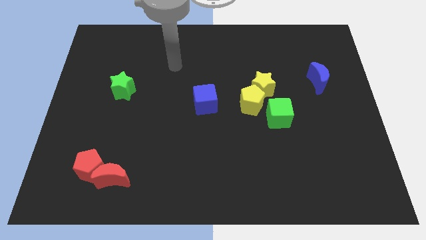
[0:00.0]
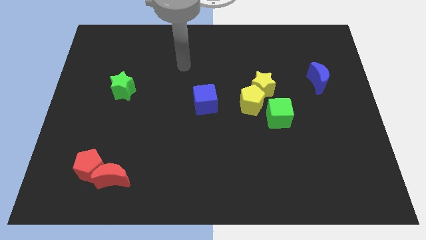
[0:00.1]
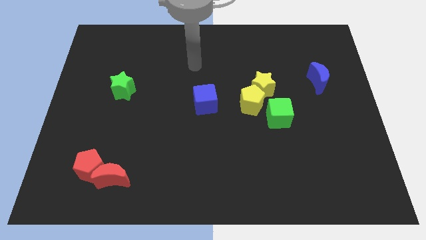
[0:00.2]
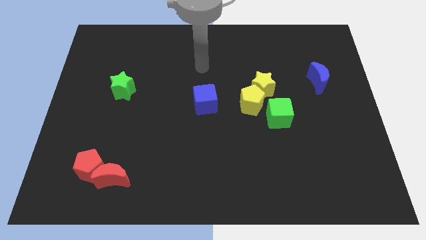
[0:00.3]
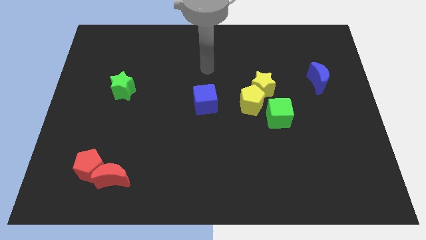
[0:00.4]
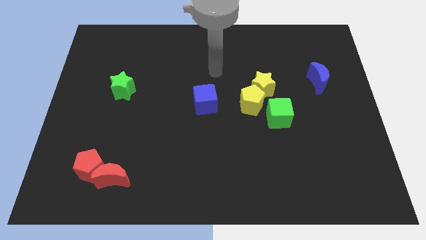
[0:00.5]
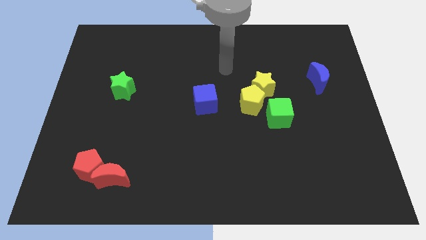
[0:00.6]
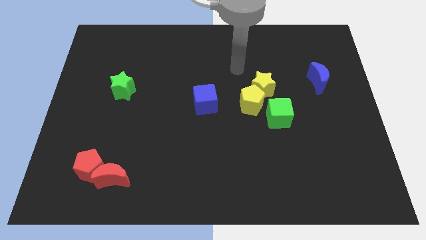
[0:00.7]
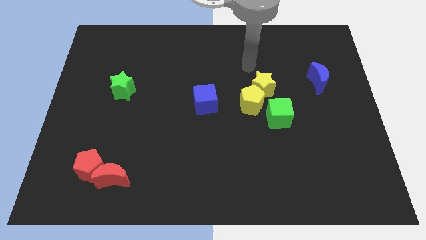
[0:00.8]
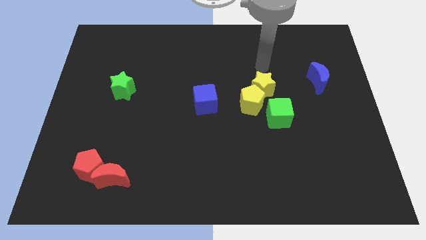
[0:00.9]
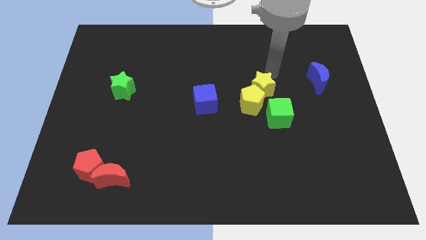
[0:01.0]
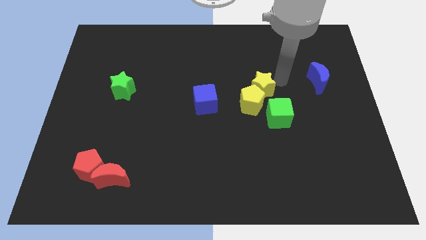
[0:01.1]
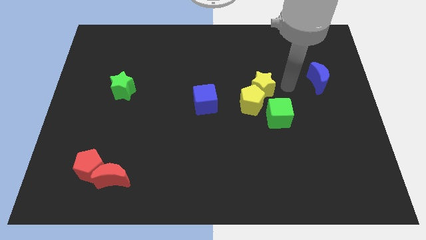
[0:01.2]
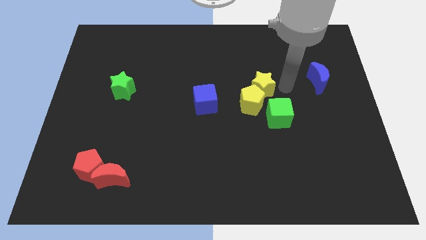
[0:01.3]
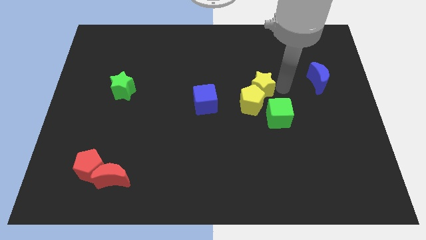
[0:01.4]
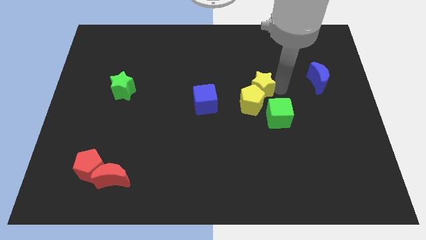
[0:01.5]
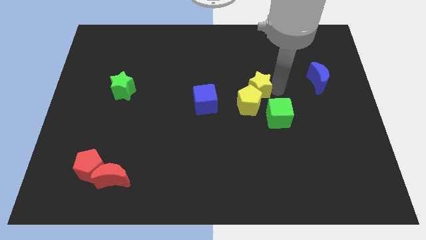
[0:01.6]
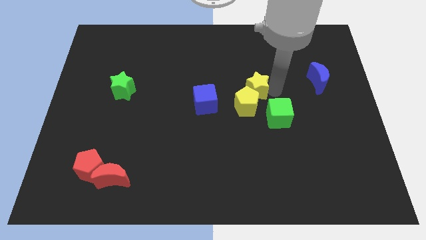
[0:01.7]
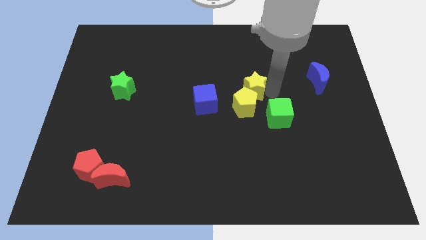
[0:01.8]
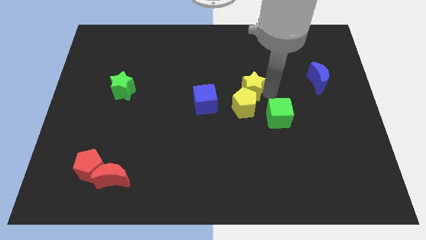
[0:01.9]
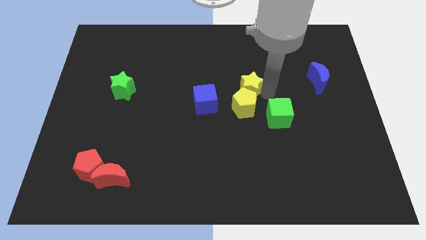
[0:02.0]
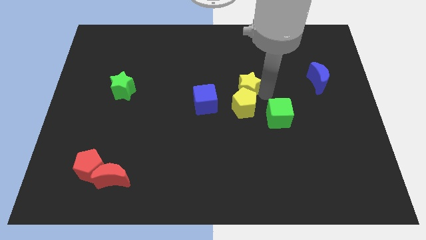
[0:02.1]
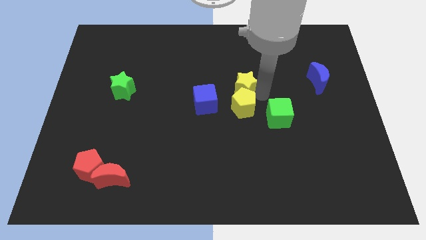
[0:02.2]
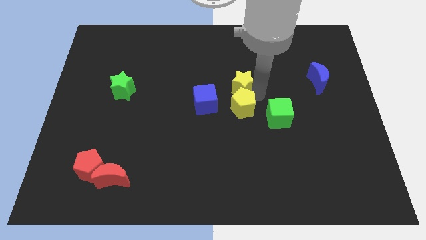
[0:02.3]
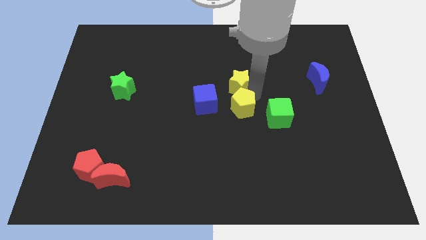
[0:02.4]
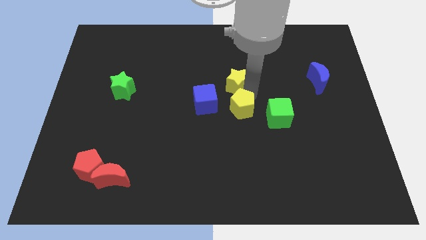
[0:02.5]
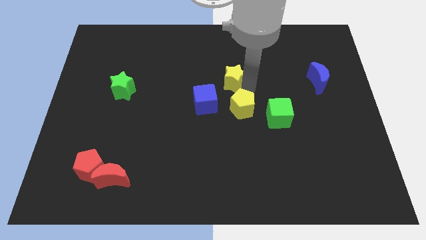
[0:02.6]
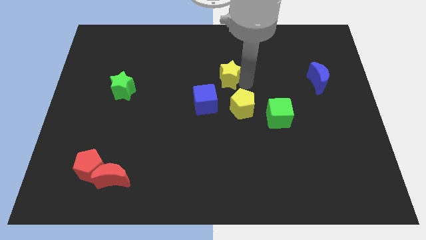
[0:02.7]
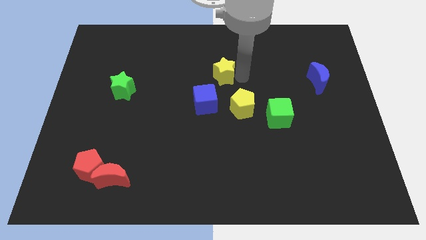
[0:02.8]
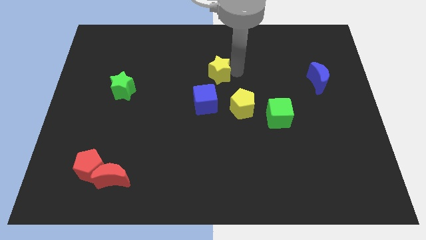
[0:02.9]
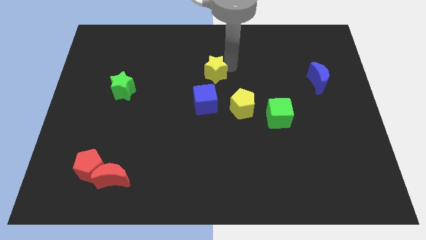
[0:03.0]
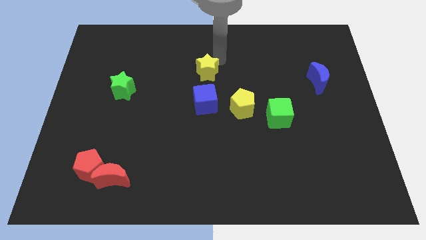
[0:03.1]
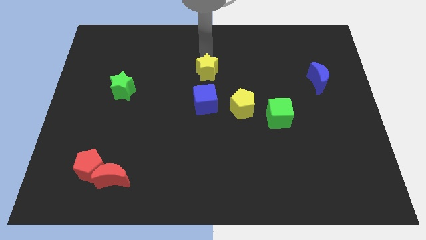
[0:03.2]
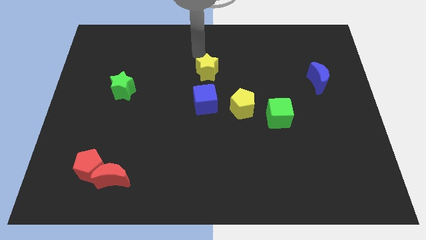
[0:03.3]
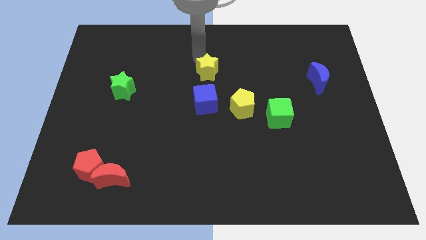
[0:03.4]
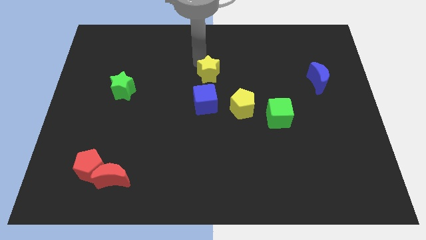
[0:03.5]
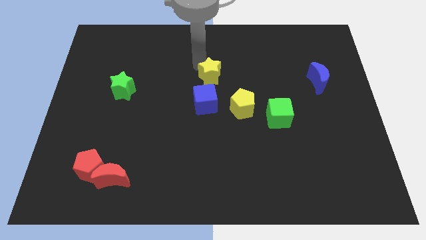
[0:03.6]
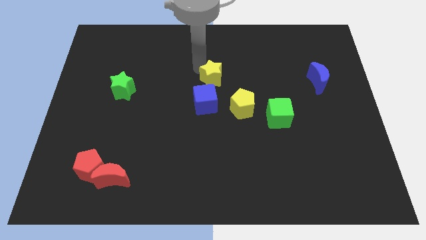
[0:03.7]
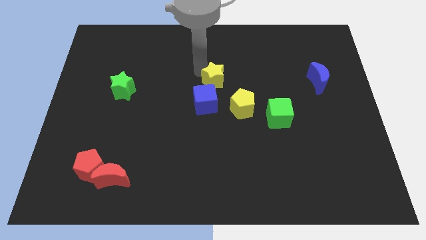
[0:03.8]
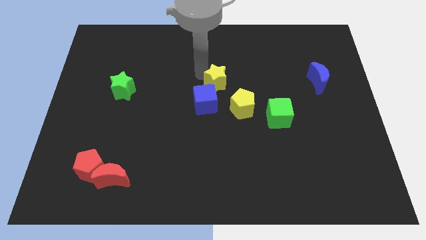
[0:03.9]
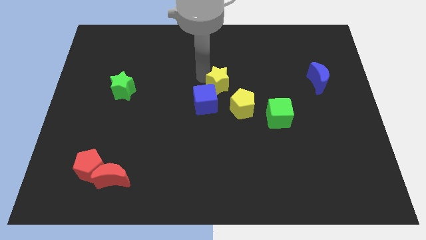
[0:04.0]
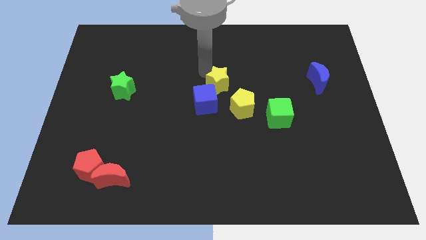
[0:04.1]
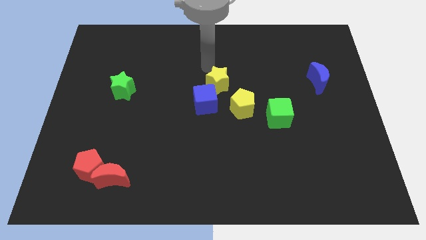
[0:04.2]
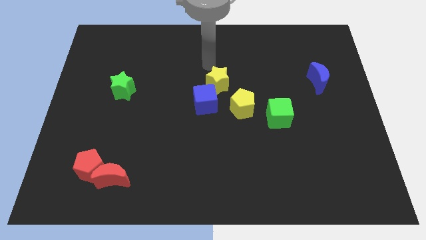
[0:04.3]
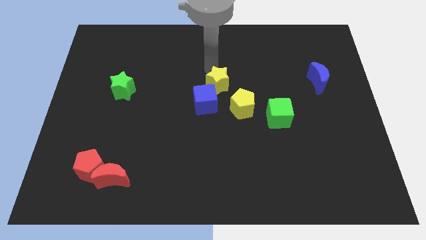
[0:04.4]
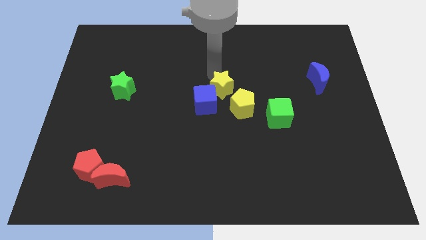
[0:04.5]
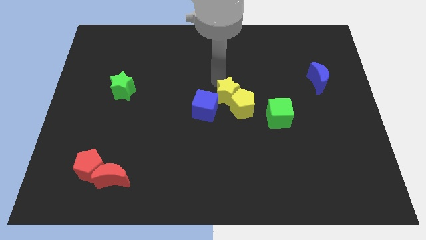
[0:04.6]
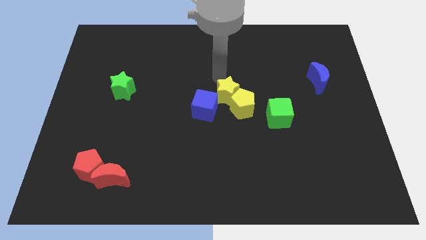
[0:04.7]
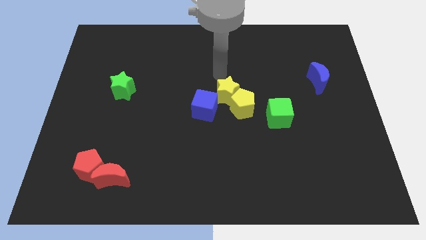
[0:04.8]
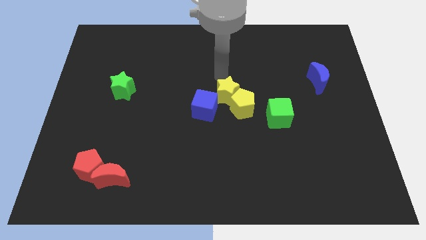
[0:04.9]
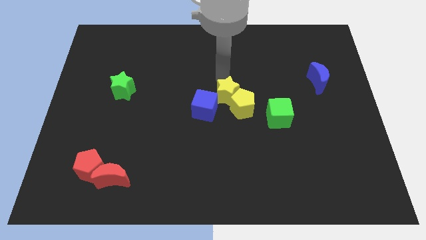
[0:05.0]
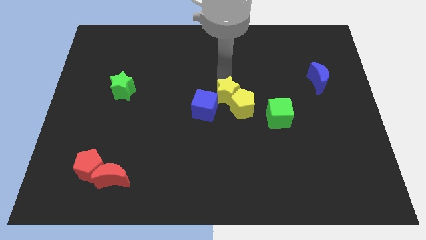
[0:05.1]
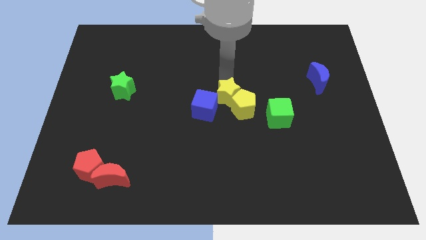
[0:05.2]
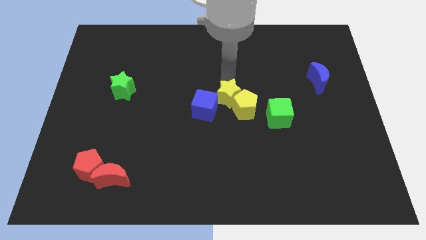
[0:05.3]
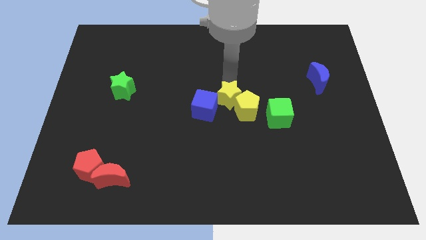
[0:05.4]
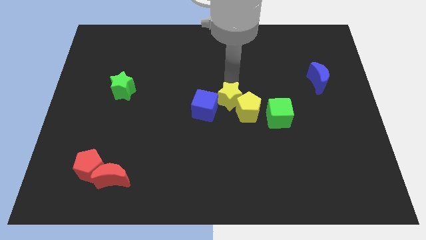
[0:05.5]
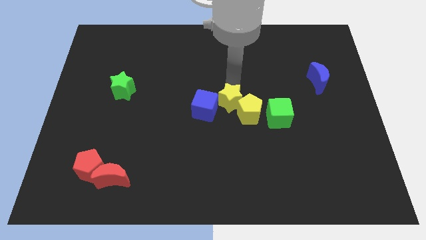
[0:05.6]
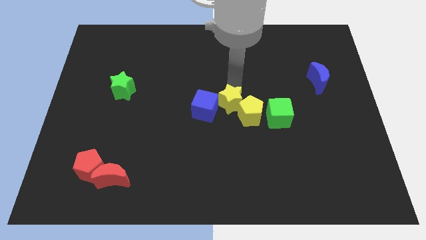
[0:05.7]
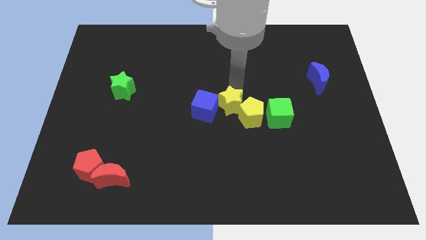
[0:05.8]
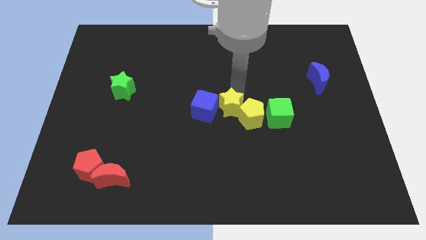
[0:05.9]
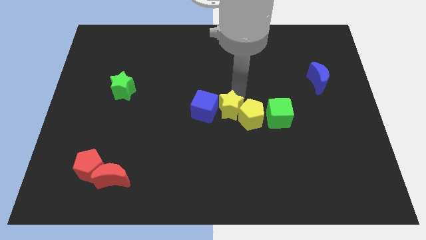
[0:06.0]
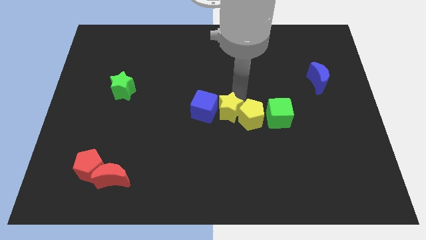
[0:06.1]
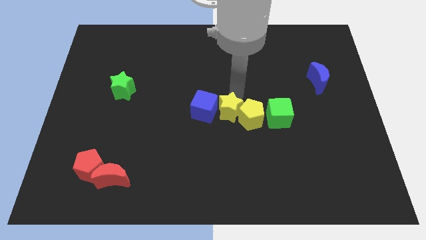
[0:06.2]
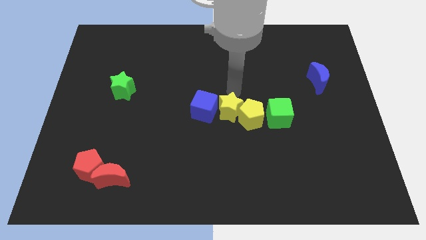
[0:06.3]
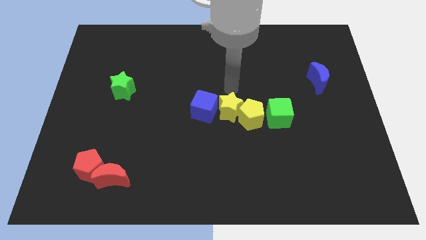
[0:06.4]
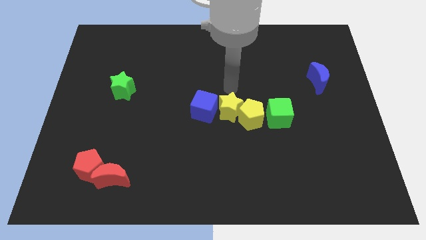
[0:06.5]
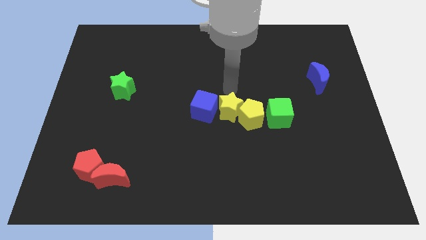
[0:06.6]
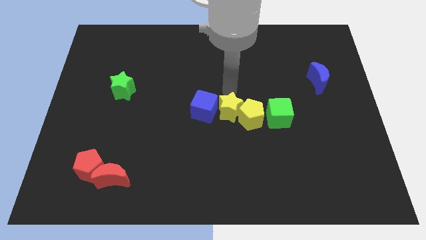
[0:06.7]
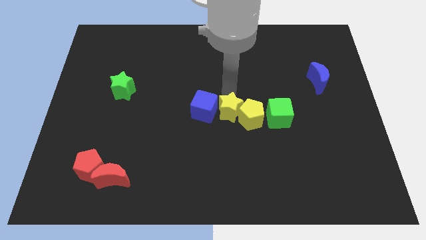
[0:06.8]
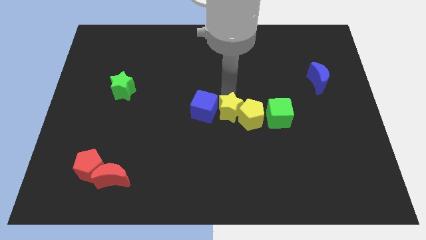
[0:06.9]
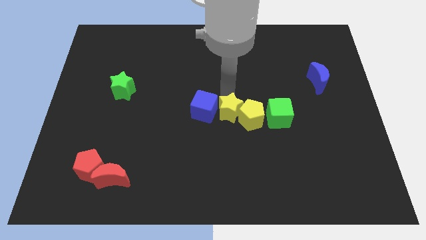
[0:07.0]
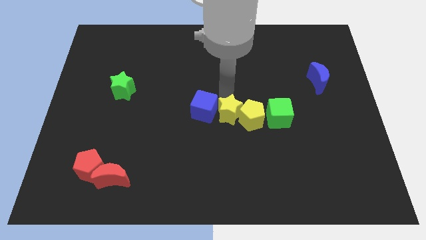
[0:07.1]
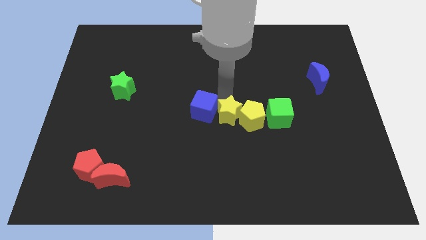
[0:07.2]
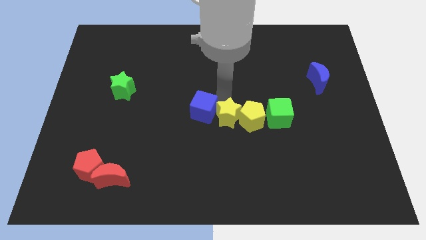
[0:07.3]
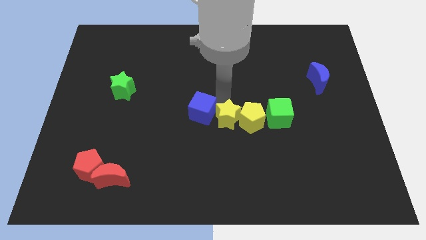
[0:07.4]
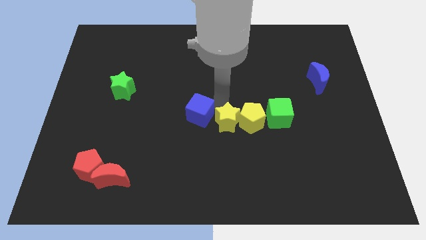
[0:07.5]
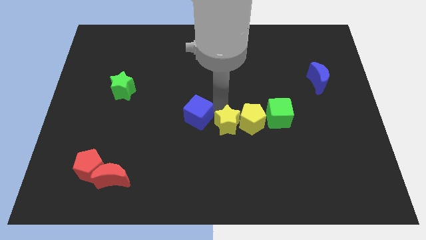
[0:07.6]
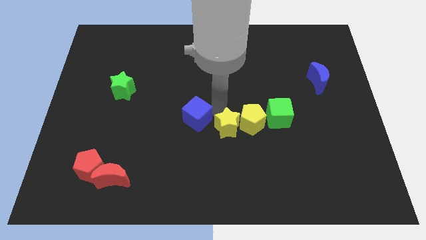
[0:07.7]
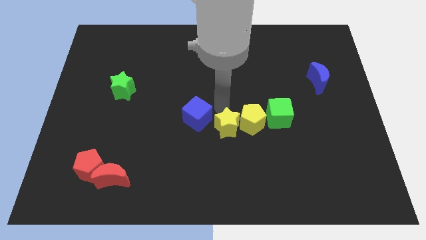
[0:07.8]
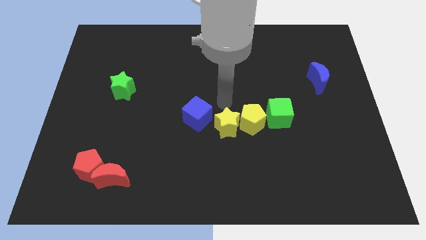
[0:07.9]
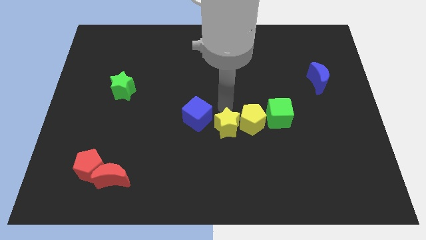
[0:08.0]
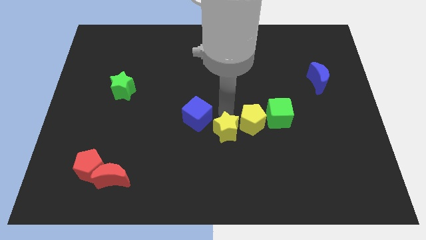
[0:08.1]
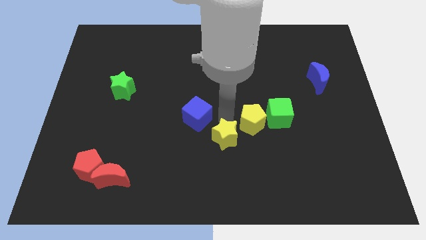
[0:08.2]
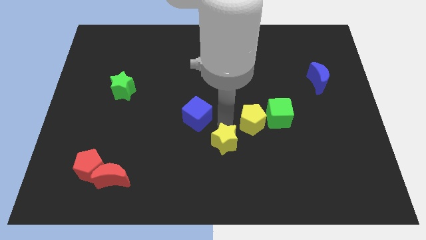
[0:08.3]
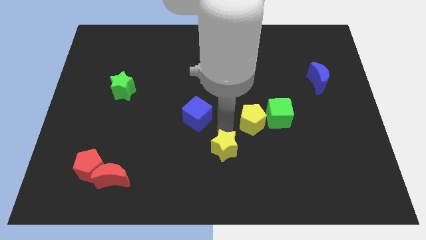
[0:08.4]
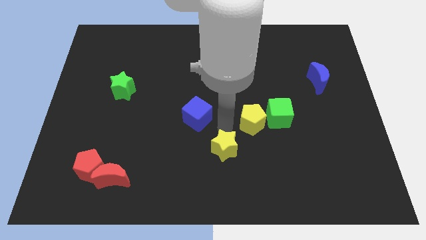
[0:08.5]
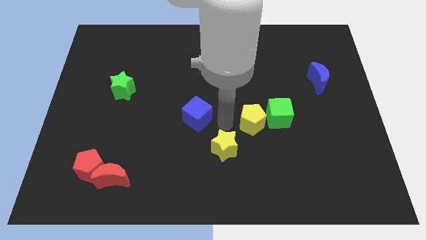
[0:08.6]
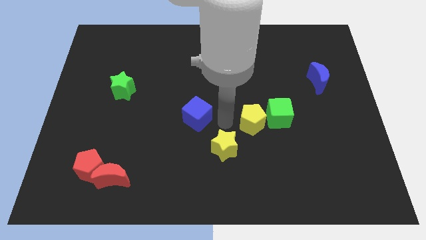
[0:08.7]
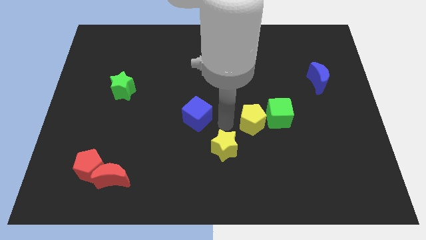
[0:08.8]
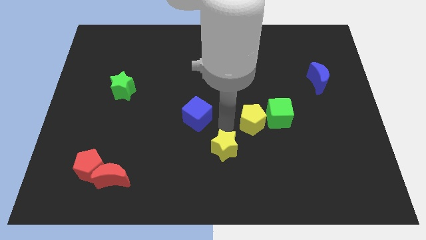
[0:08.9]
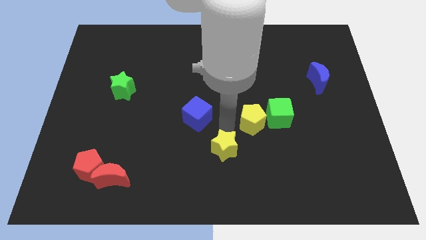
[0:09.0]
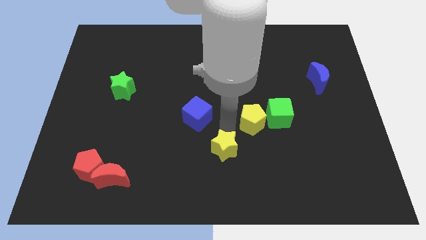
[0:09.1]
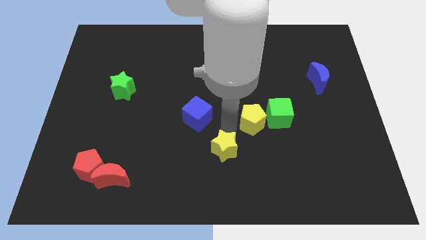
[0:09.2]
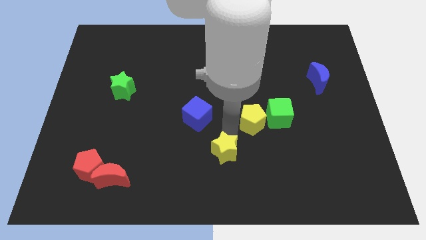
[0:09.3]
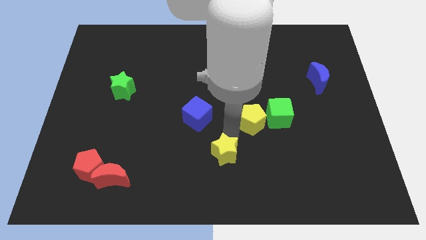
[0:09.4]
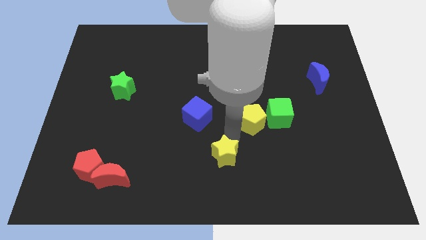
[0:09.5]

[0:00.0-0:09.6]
push the yellow star to the bottom
